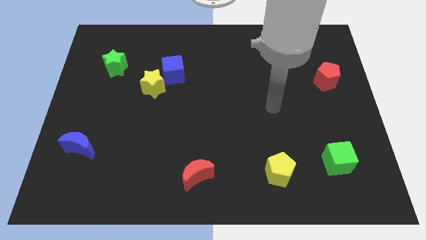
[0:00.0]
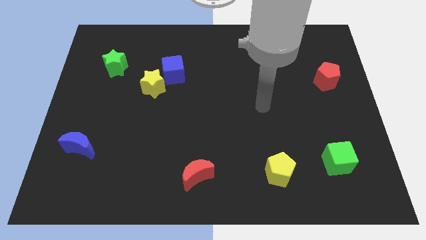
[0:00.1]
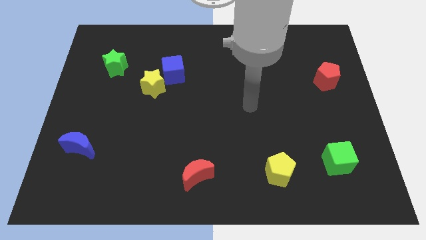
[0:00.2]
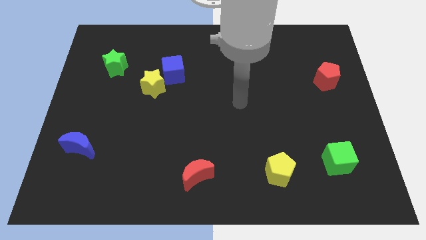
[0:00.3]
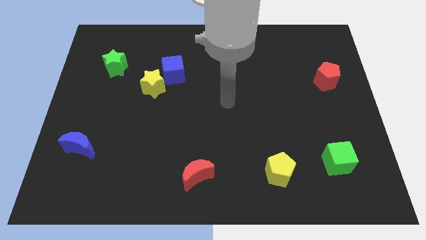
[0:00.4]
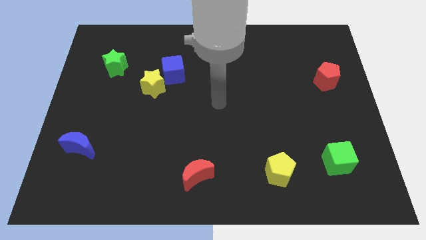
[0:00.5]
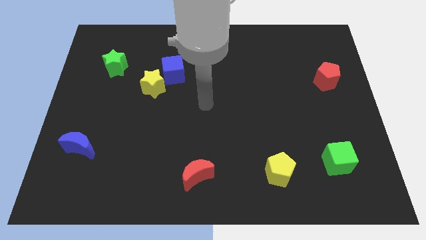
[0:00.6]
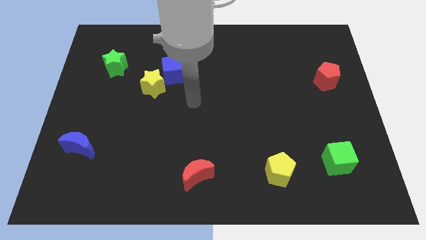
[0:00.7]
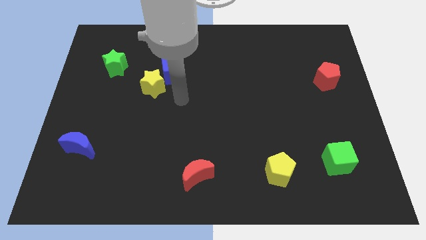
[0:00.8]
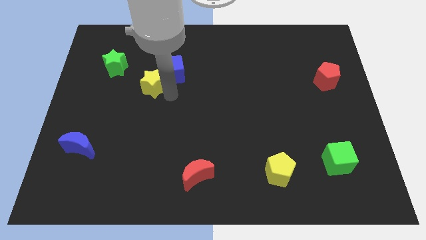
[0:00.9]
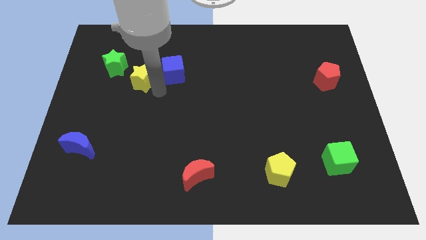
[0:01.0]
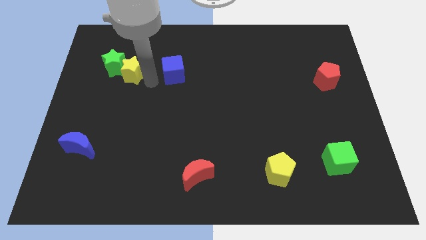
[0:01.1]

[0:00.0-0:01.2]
separate the blue cube from the yellow star

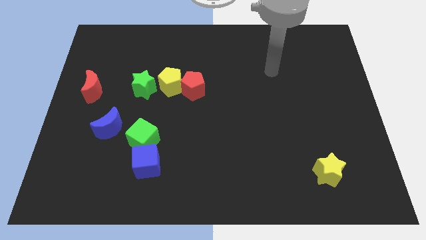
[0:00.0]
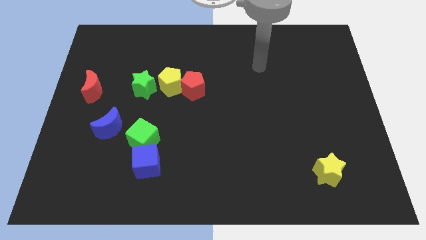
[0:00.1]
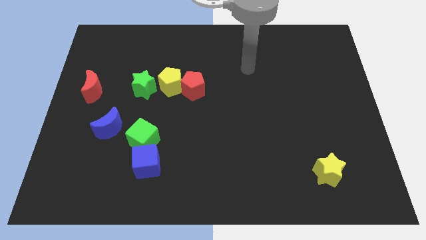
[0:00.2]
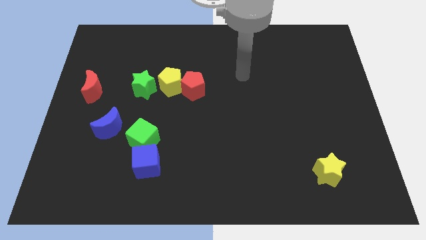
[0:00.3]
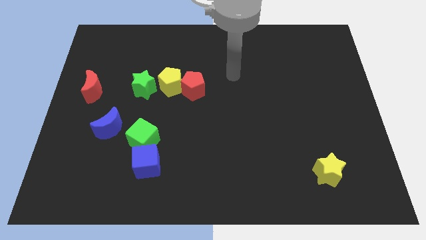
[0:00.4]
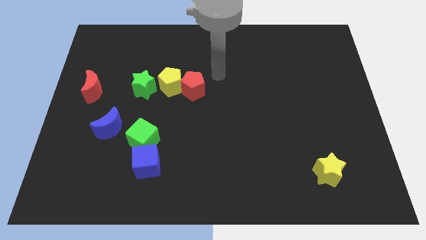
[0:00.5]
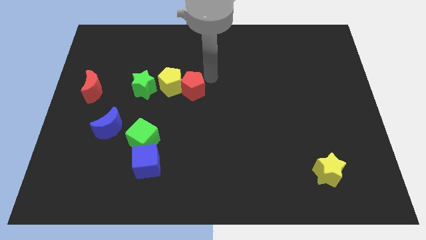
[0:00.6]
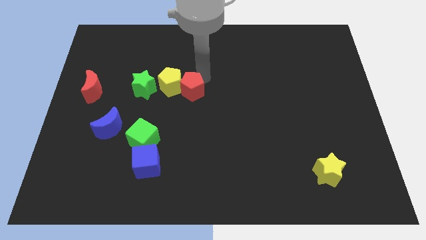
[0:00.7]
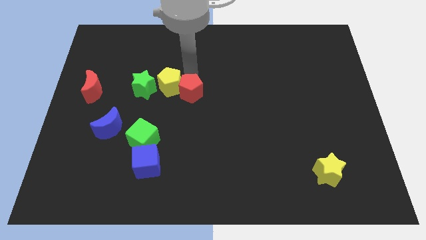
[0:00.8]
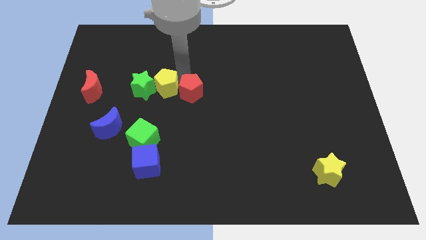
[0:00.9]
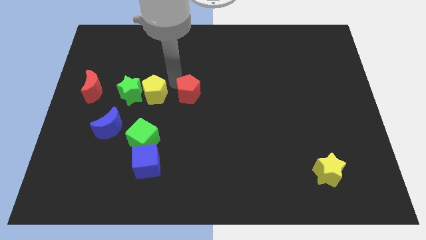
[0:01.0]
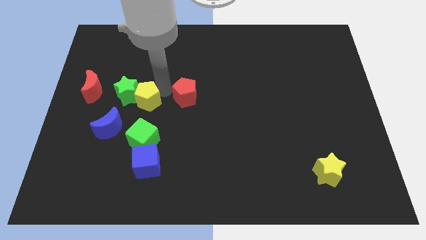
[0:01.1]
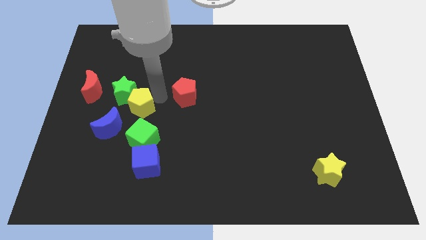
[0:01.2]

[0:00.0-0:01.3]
pull the red pentagon apart from the yellow pentagon

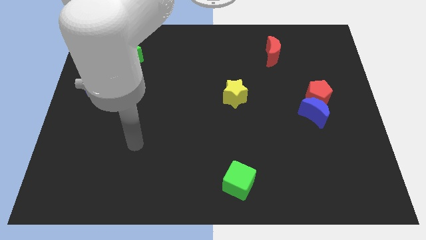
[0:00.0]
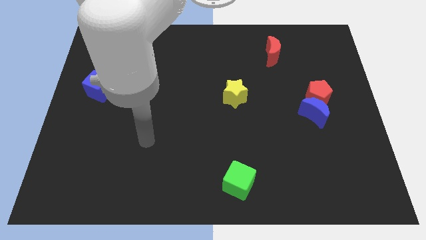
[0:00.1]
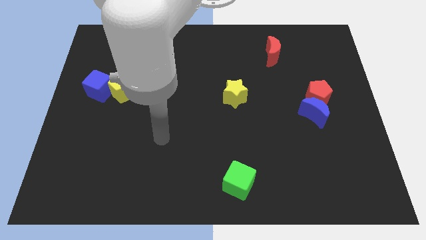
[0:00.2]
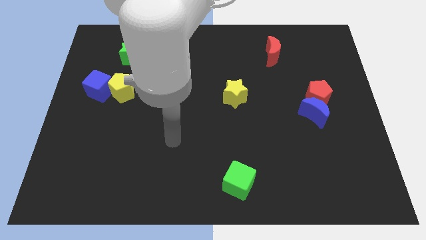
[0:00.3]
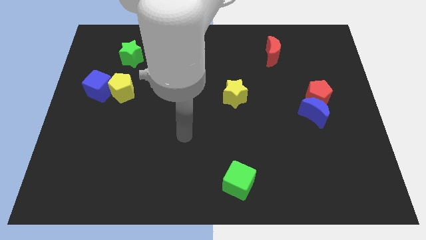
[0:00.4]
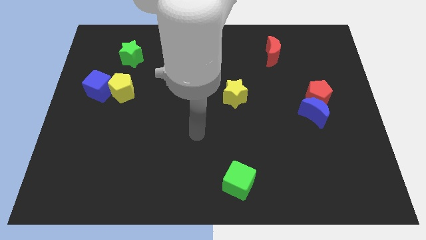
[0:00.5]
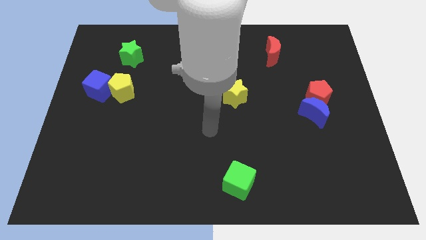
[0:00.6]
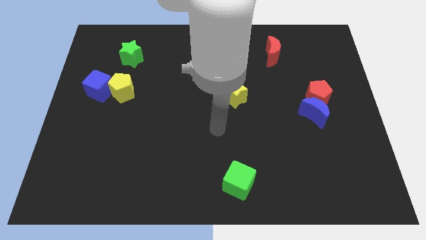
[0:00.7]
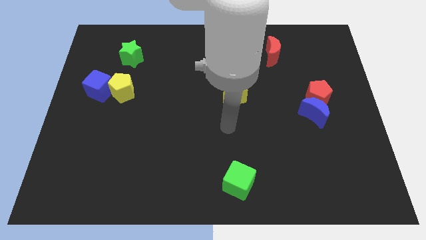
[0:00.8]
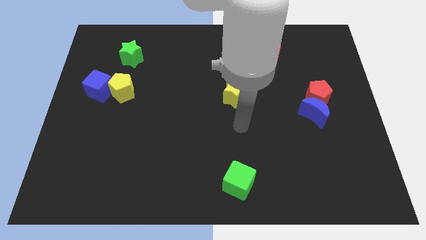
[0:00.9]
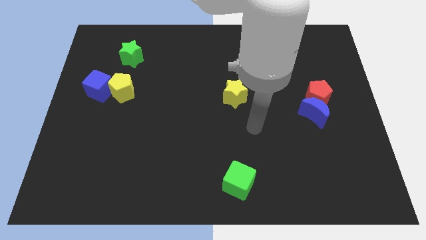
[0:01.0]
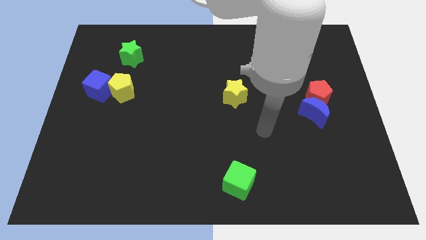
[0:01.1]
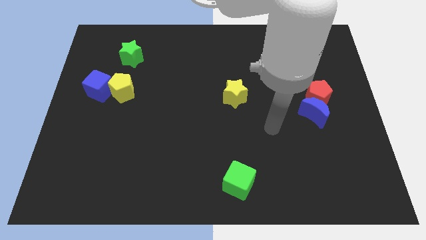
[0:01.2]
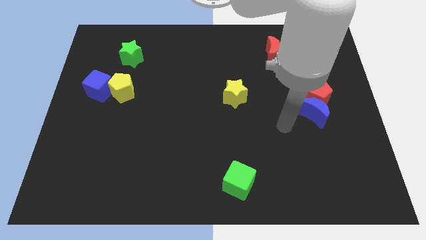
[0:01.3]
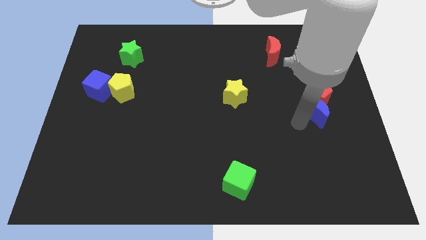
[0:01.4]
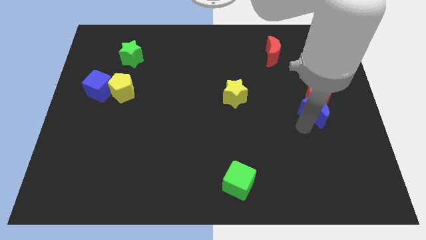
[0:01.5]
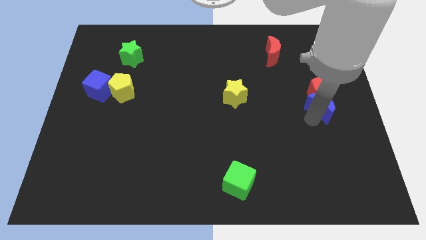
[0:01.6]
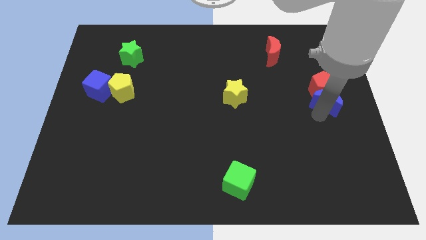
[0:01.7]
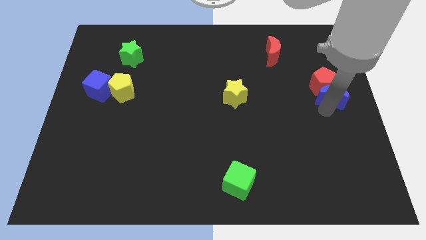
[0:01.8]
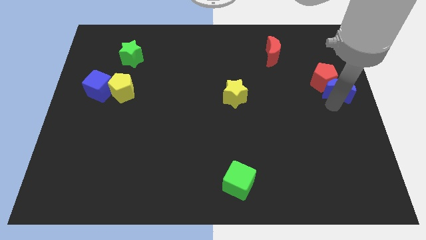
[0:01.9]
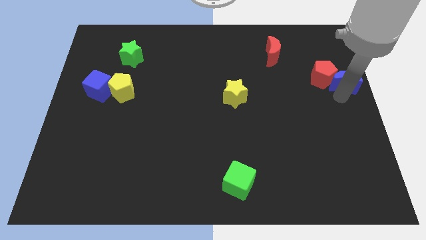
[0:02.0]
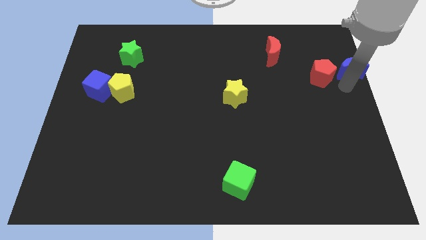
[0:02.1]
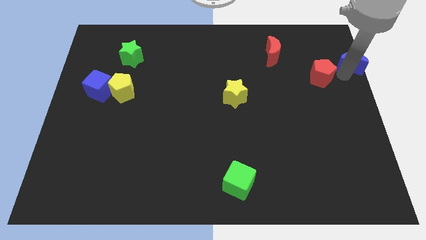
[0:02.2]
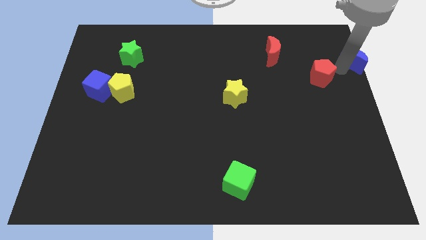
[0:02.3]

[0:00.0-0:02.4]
separate the red pentagon from the blue moon

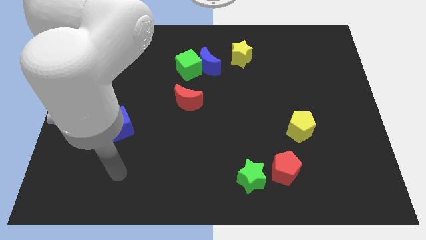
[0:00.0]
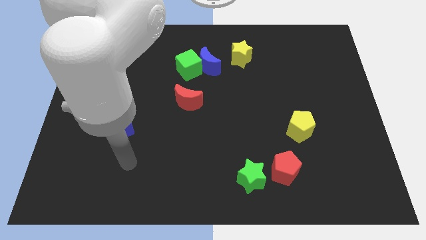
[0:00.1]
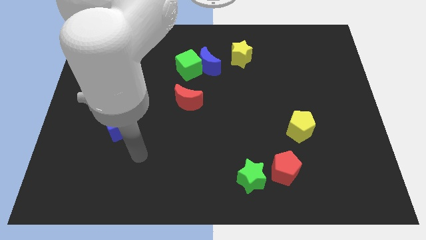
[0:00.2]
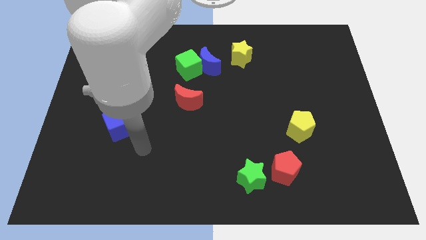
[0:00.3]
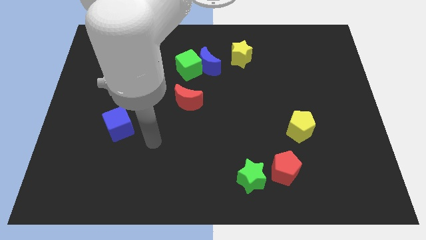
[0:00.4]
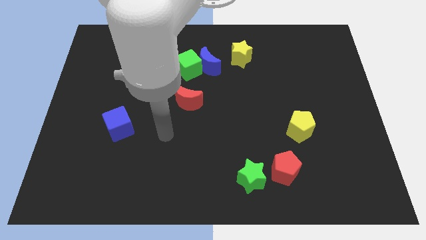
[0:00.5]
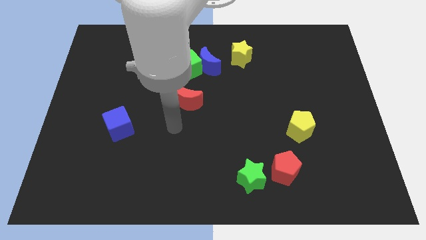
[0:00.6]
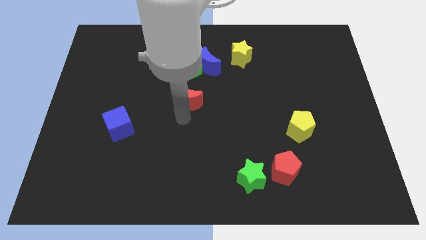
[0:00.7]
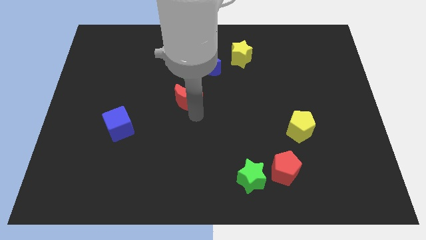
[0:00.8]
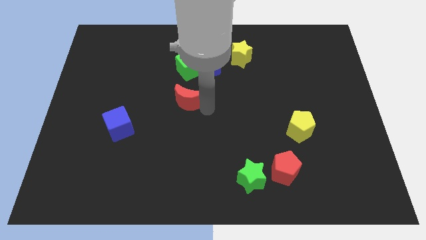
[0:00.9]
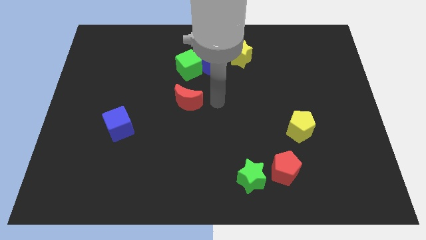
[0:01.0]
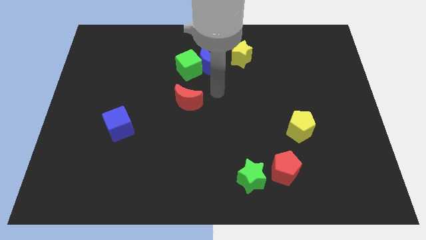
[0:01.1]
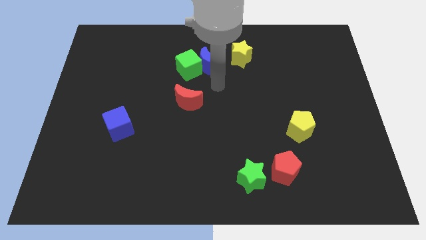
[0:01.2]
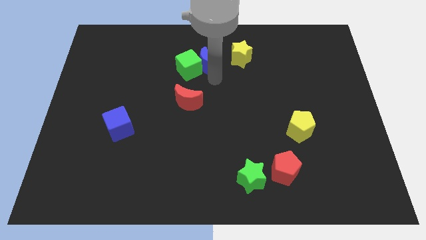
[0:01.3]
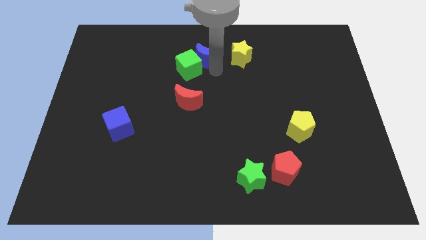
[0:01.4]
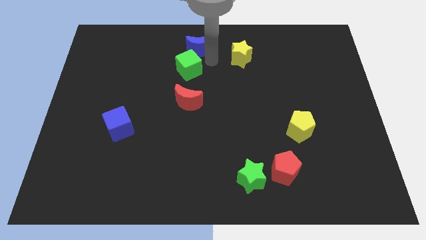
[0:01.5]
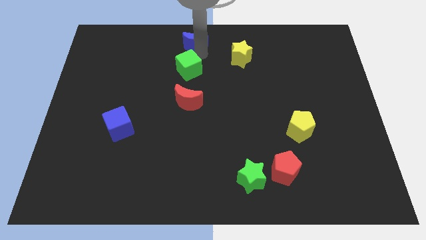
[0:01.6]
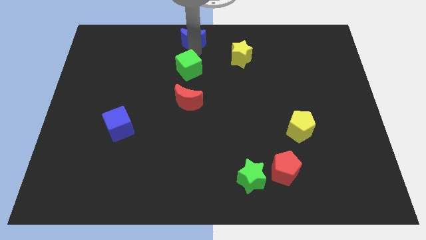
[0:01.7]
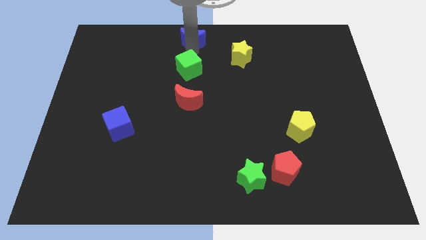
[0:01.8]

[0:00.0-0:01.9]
pull the green cube apart from the blue moon

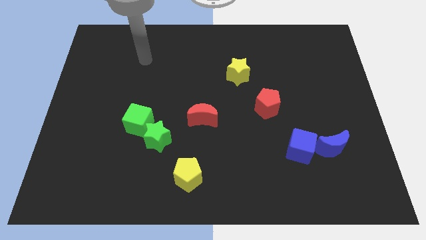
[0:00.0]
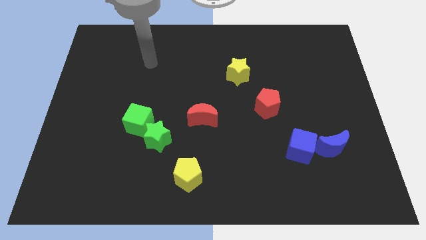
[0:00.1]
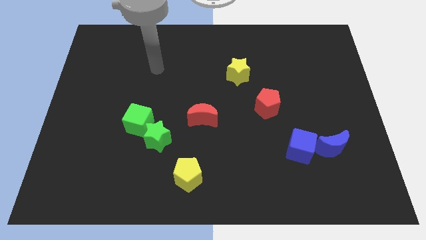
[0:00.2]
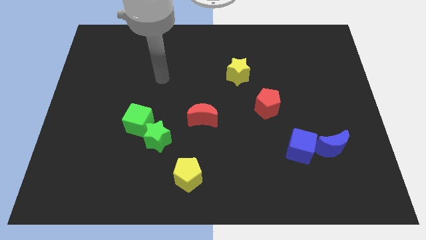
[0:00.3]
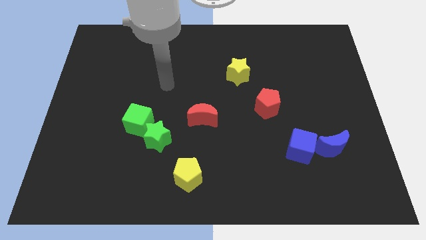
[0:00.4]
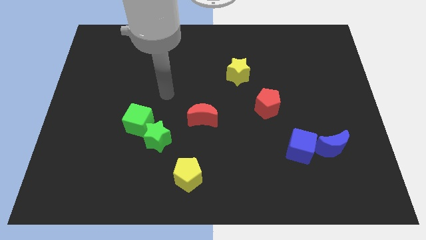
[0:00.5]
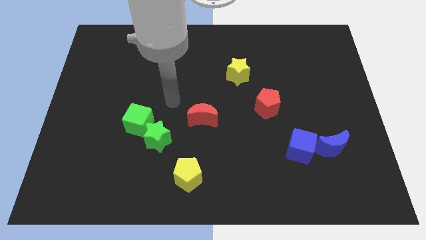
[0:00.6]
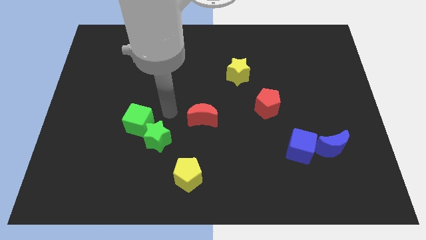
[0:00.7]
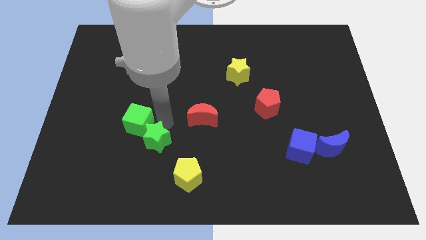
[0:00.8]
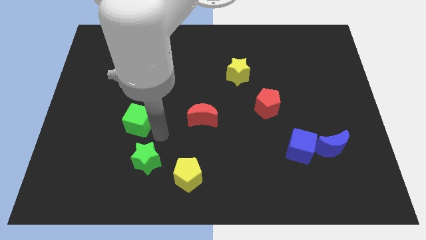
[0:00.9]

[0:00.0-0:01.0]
separate the green cube from the green star

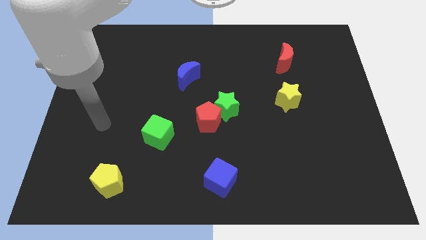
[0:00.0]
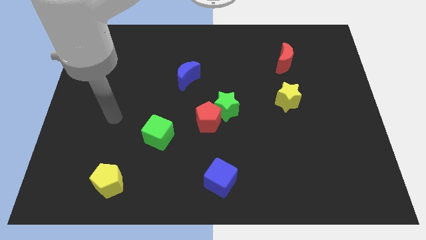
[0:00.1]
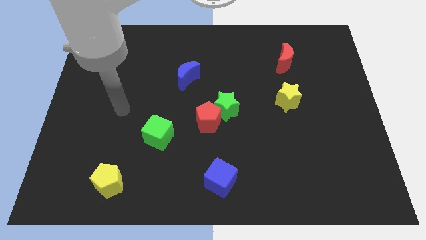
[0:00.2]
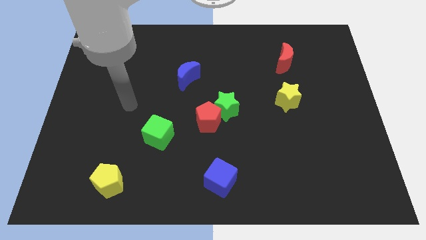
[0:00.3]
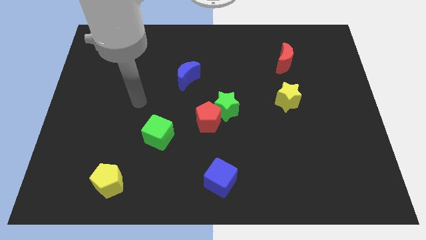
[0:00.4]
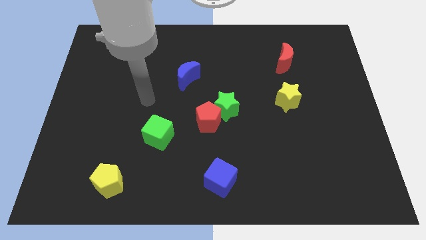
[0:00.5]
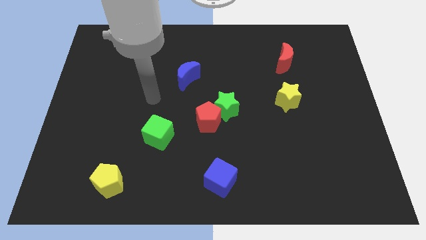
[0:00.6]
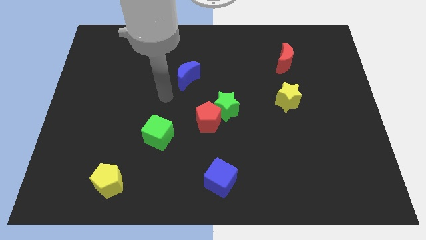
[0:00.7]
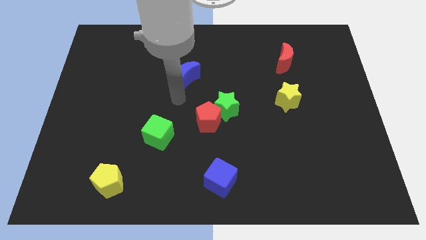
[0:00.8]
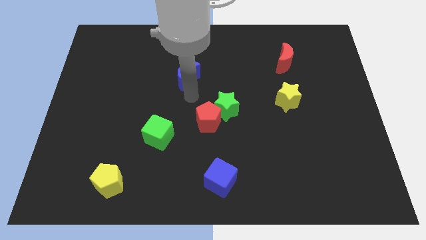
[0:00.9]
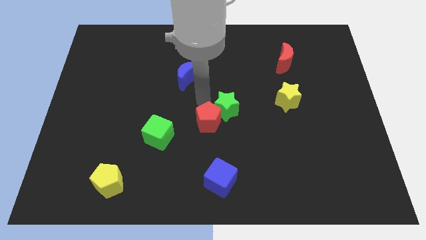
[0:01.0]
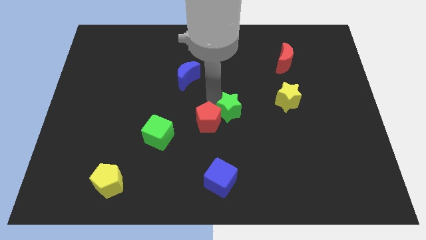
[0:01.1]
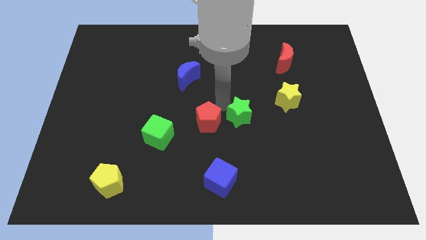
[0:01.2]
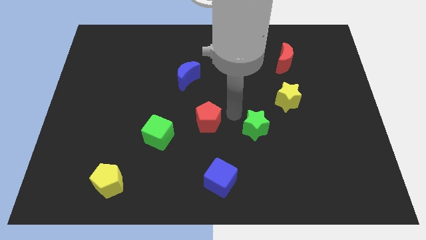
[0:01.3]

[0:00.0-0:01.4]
pull the red pentagon apart from the green star
